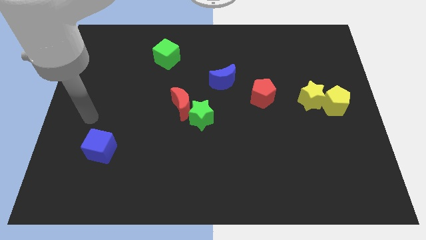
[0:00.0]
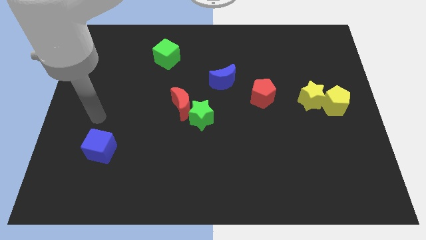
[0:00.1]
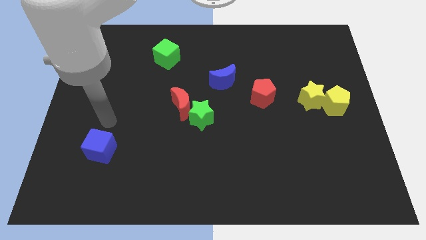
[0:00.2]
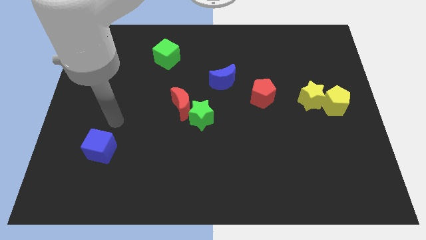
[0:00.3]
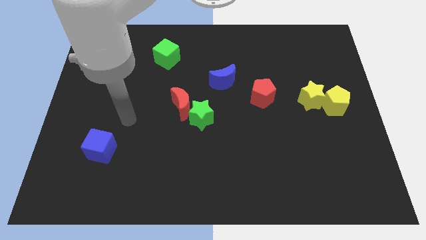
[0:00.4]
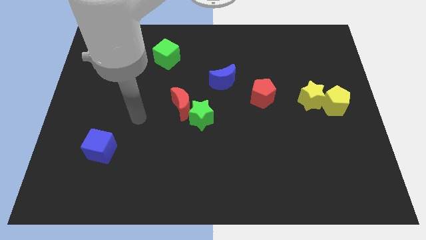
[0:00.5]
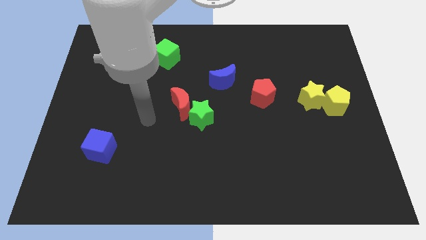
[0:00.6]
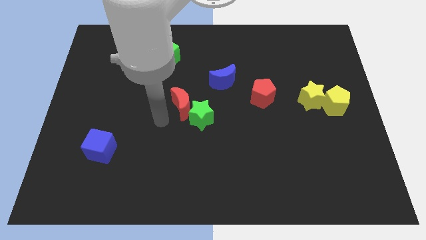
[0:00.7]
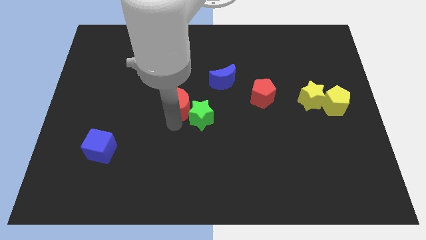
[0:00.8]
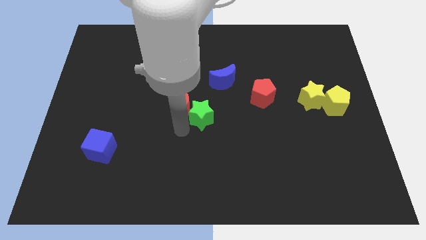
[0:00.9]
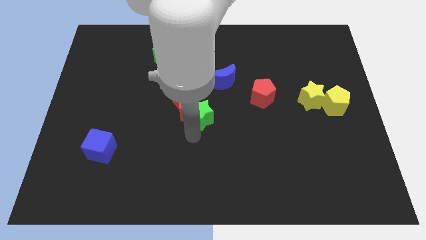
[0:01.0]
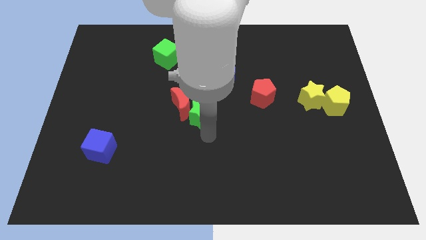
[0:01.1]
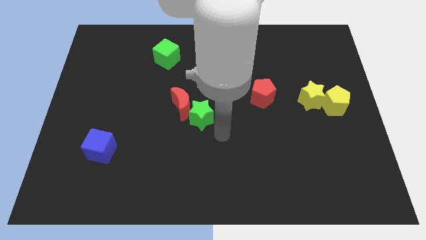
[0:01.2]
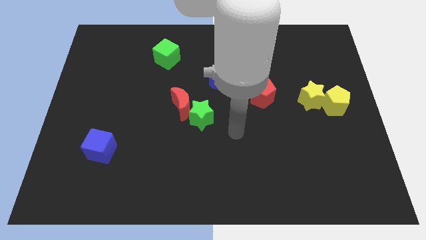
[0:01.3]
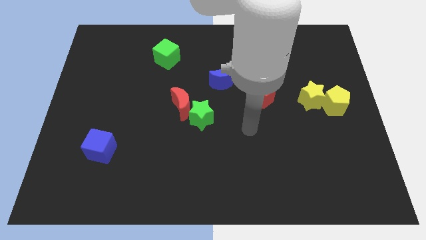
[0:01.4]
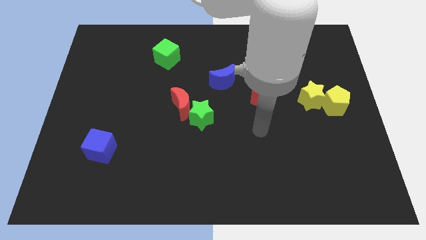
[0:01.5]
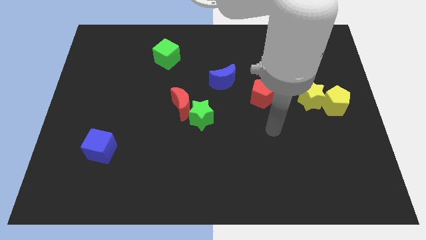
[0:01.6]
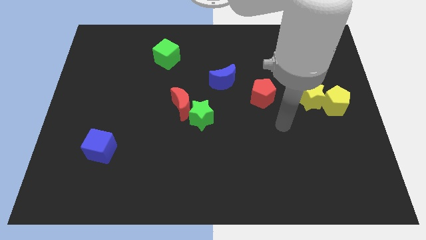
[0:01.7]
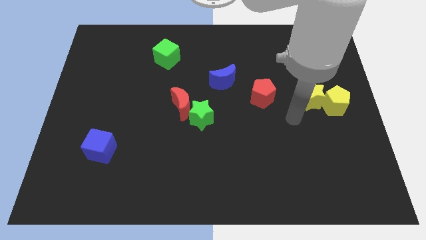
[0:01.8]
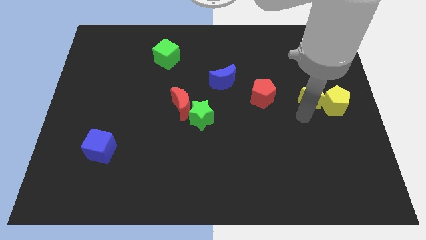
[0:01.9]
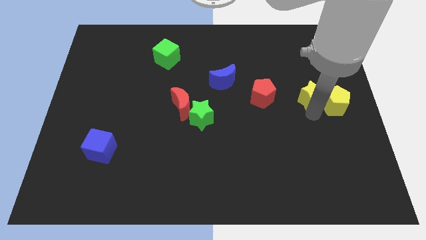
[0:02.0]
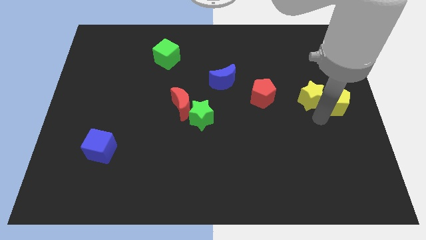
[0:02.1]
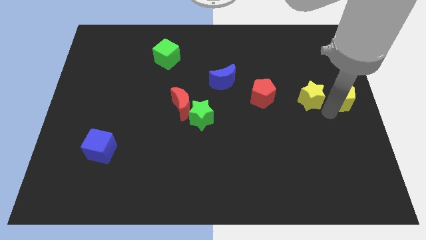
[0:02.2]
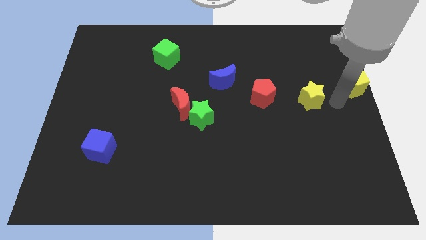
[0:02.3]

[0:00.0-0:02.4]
move the yellow star away from the yellow pentagon

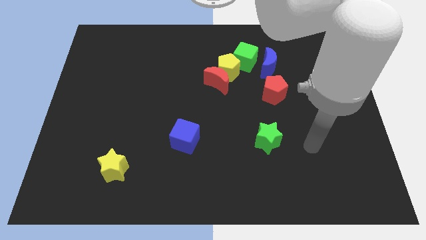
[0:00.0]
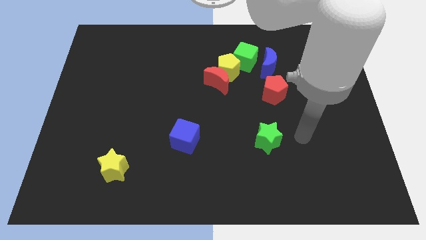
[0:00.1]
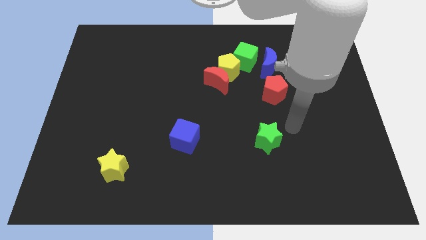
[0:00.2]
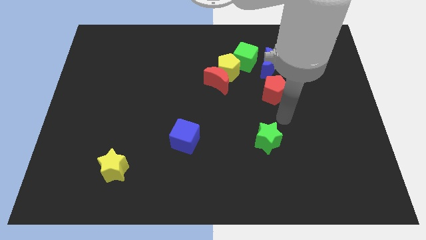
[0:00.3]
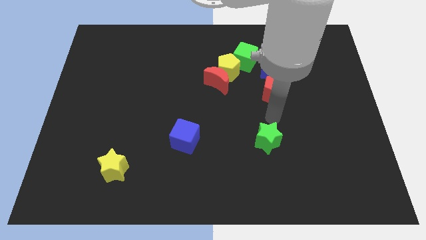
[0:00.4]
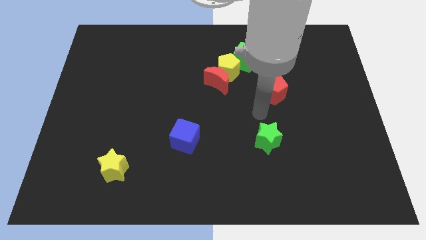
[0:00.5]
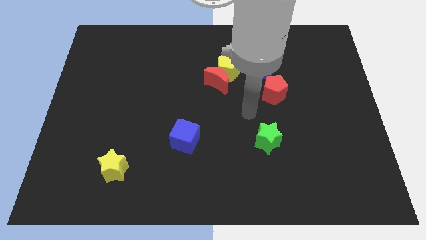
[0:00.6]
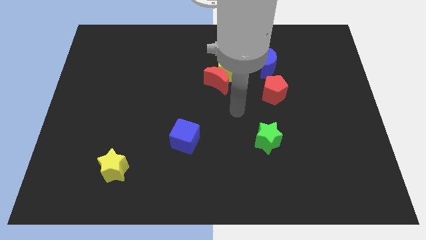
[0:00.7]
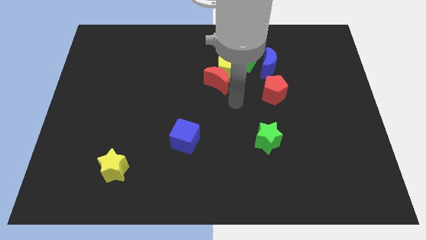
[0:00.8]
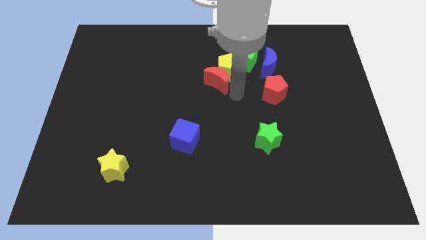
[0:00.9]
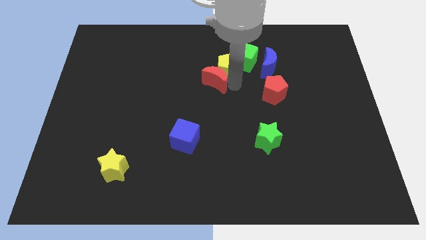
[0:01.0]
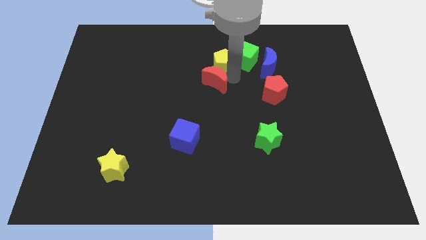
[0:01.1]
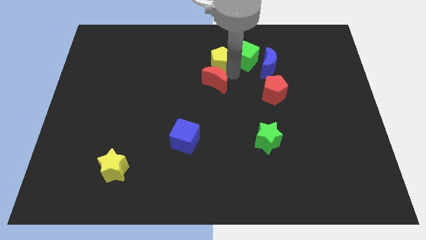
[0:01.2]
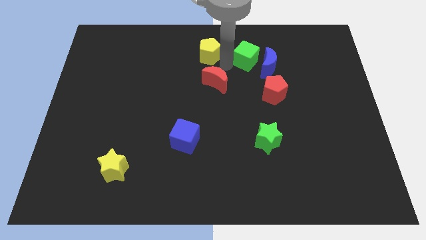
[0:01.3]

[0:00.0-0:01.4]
pull the red moon apart from the yellow pentagon

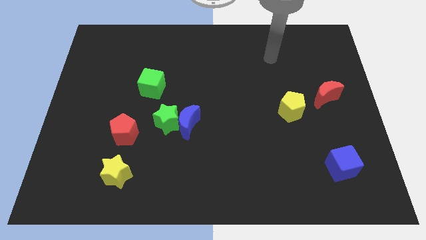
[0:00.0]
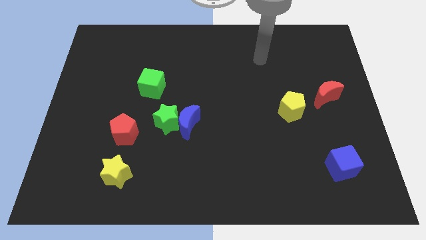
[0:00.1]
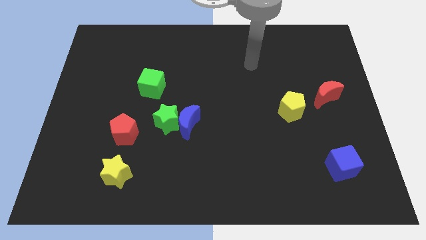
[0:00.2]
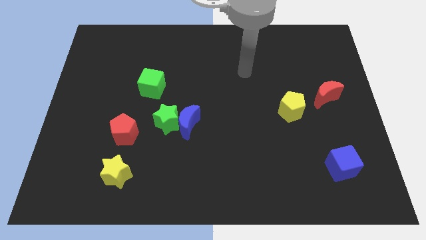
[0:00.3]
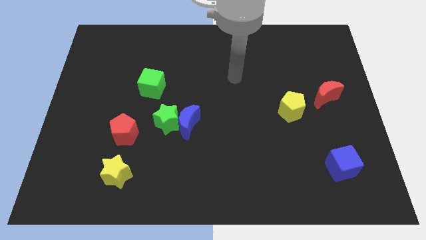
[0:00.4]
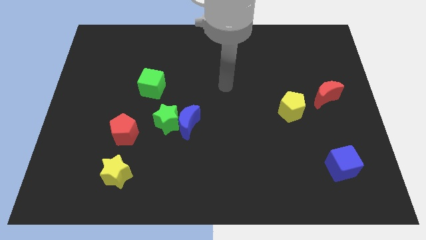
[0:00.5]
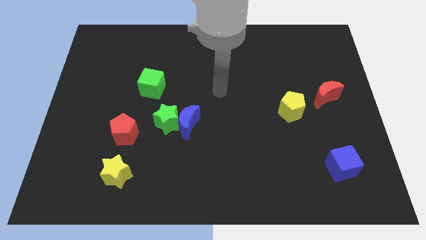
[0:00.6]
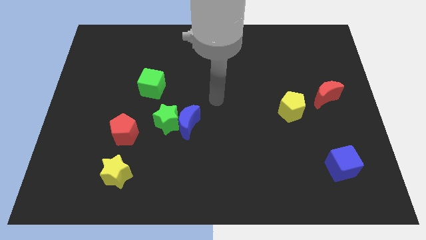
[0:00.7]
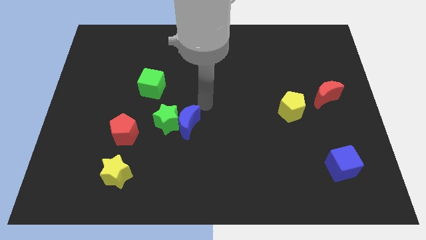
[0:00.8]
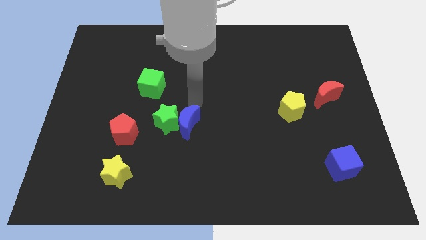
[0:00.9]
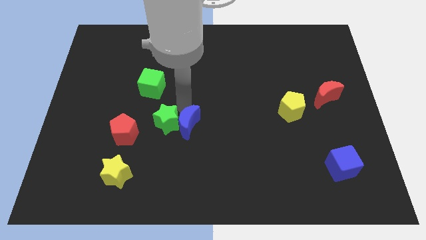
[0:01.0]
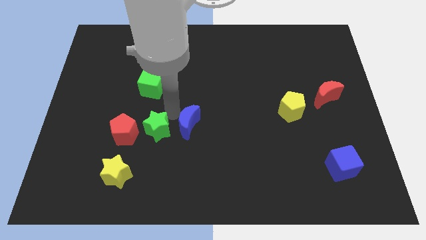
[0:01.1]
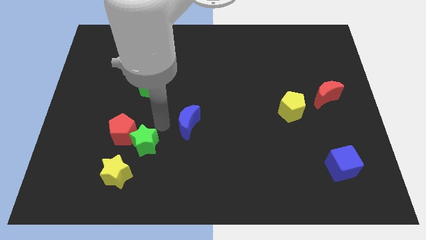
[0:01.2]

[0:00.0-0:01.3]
move the blue moon away from the green star

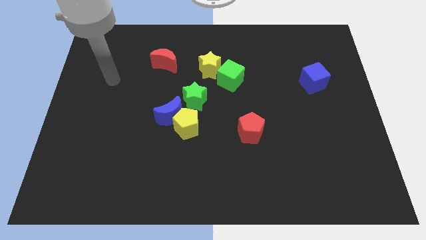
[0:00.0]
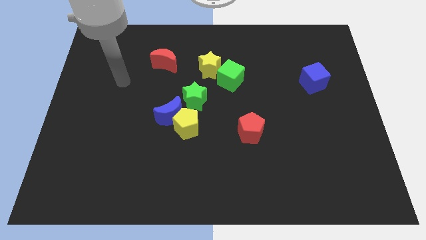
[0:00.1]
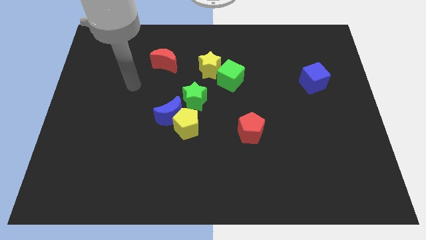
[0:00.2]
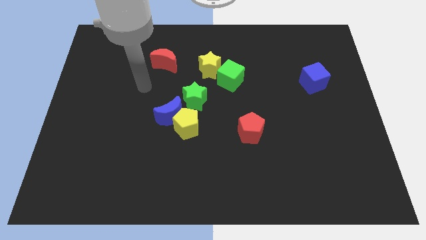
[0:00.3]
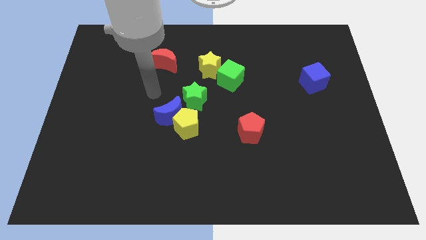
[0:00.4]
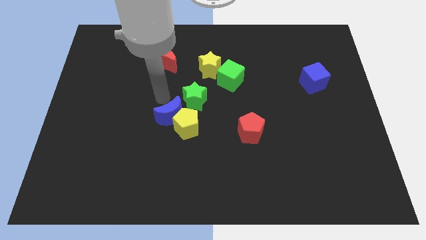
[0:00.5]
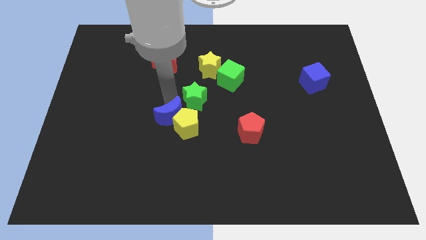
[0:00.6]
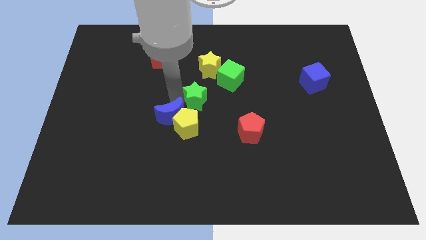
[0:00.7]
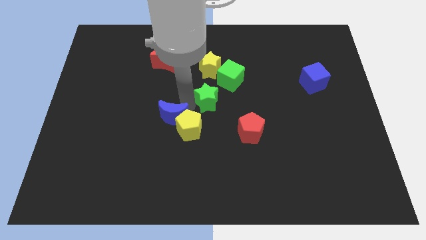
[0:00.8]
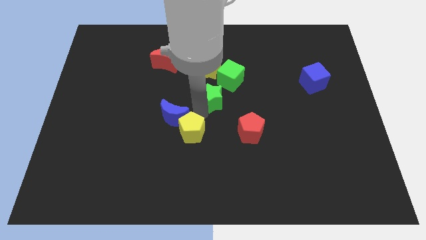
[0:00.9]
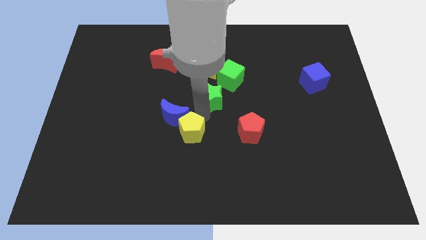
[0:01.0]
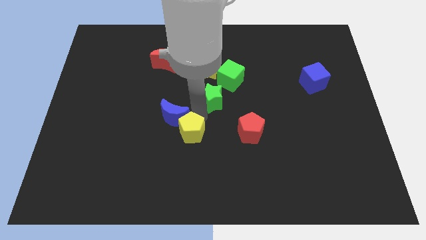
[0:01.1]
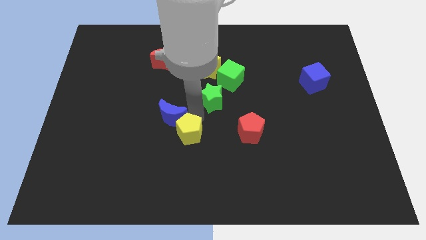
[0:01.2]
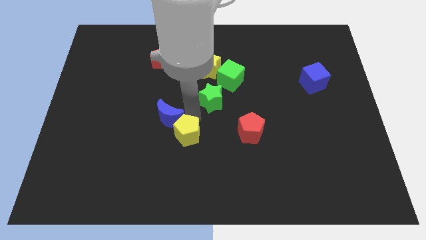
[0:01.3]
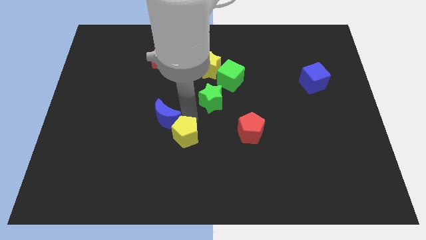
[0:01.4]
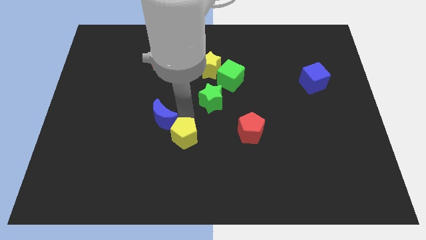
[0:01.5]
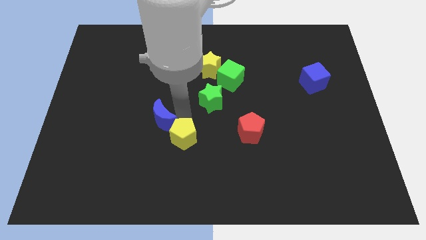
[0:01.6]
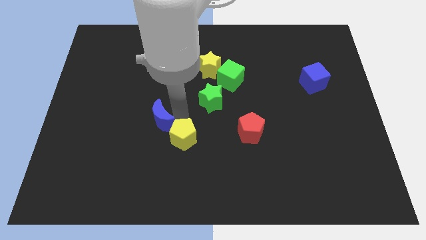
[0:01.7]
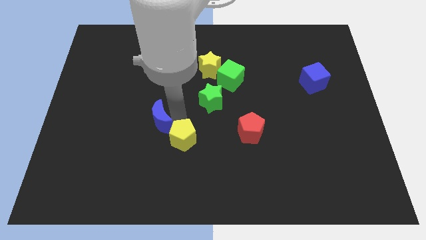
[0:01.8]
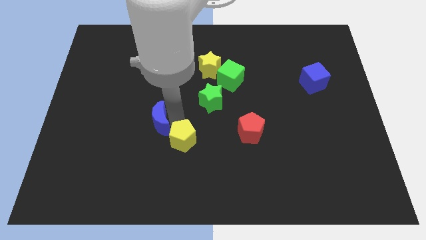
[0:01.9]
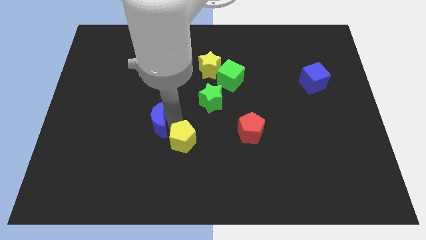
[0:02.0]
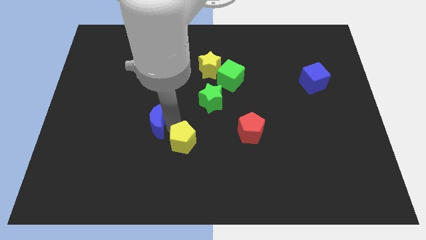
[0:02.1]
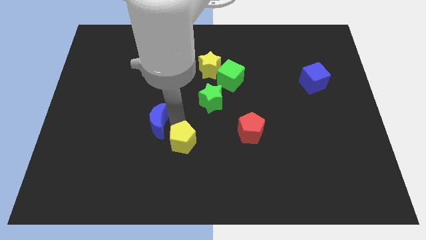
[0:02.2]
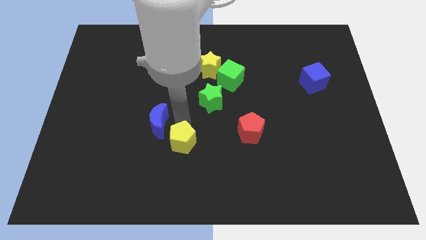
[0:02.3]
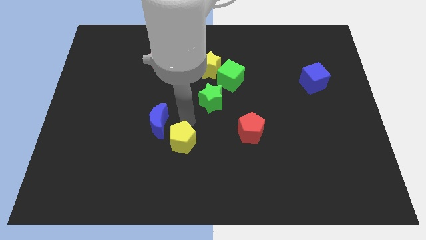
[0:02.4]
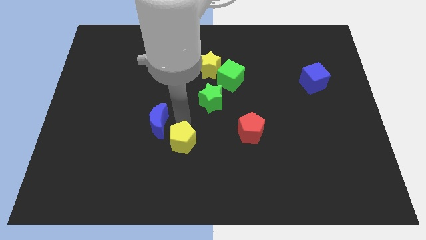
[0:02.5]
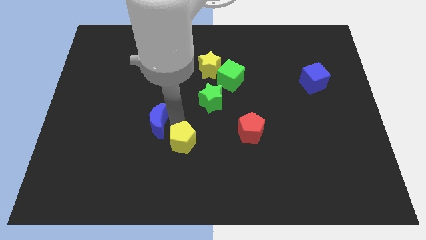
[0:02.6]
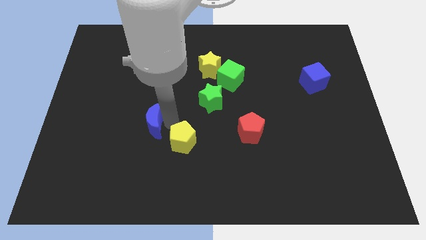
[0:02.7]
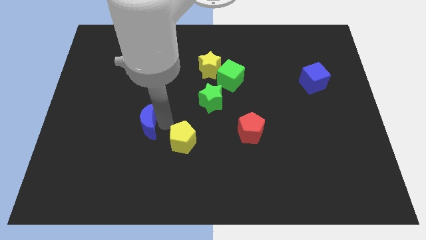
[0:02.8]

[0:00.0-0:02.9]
pull the blue moon apart from the yellow pentagon and green star

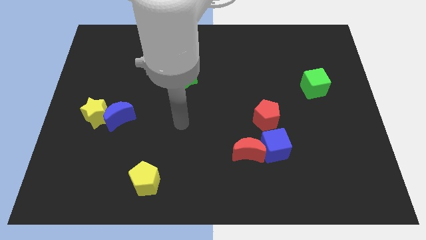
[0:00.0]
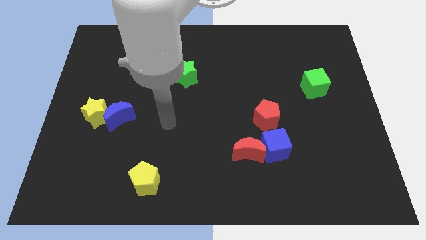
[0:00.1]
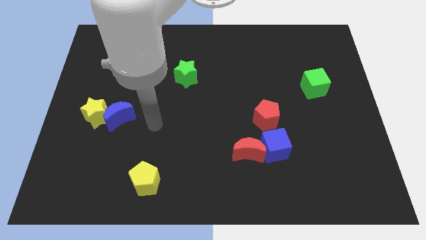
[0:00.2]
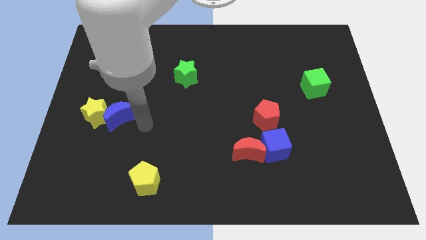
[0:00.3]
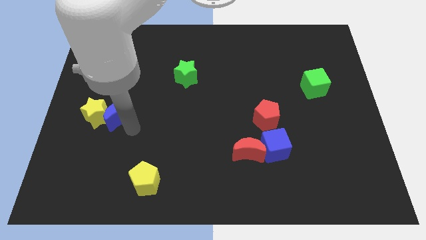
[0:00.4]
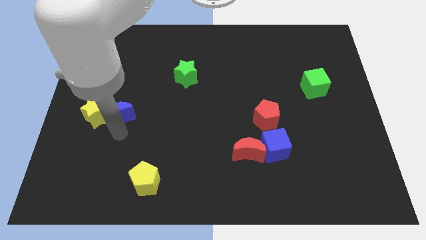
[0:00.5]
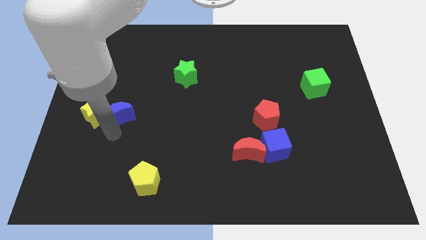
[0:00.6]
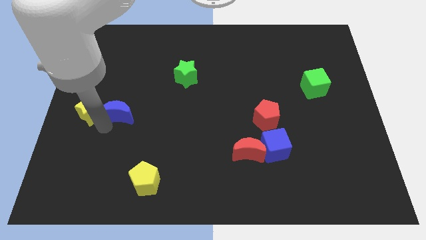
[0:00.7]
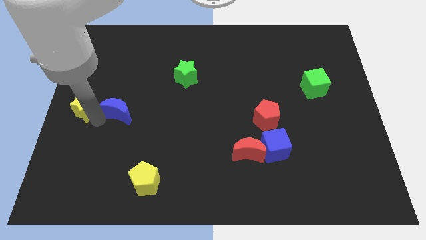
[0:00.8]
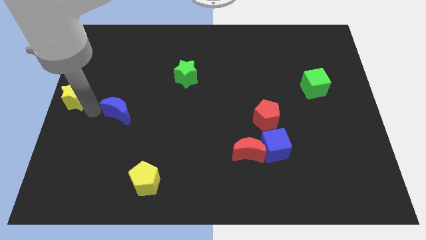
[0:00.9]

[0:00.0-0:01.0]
separate the blue moon from the yellow star

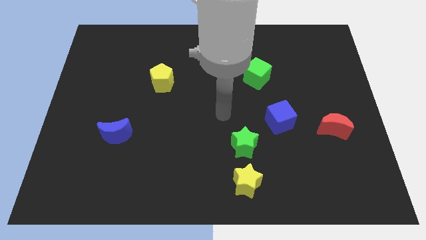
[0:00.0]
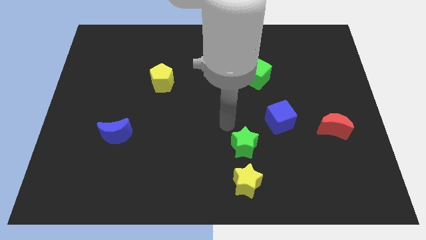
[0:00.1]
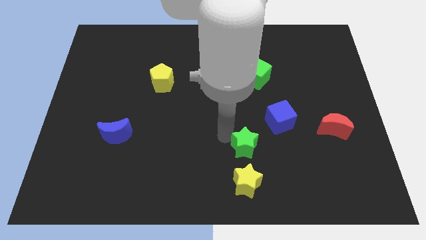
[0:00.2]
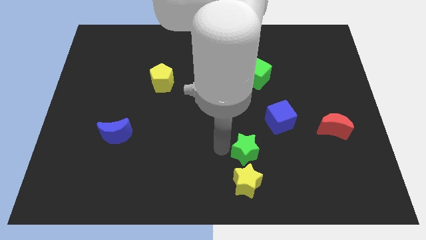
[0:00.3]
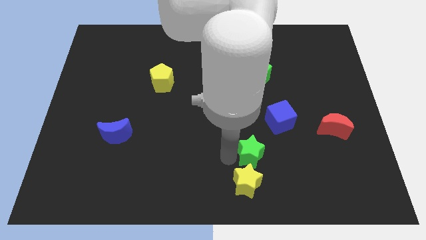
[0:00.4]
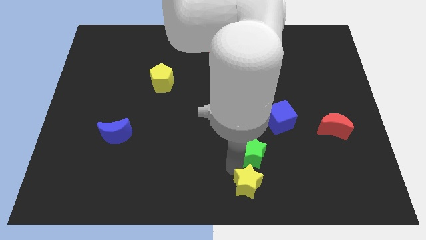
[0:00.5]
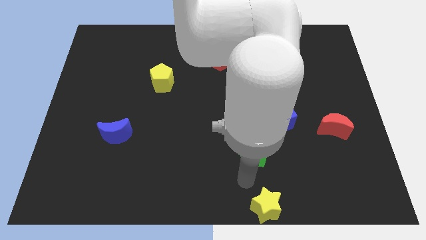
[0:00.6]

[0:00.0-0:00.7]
move the green star away from the yellow star
